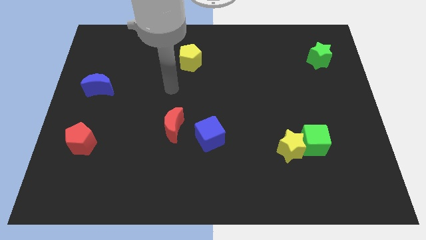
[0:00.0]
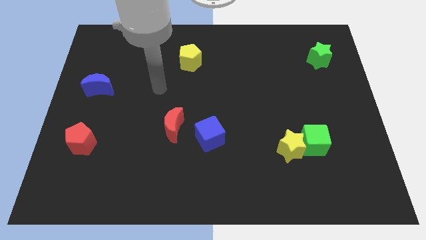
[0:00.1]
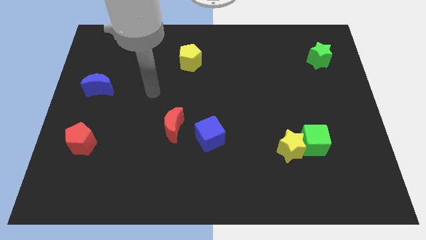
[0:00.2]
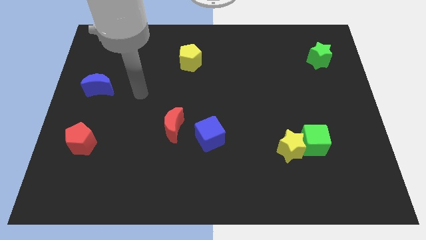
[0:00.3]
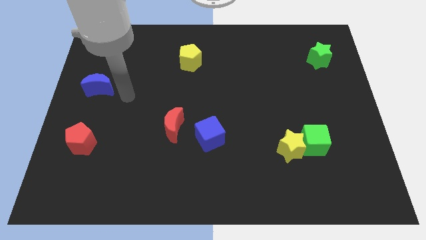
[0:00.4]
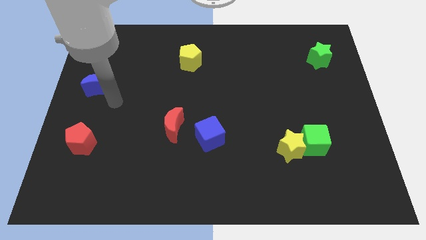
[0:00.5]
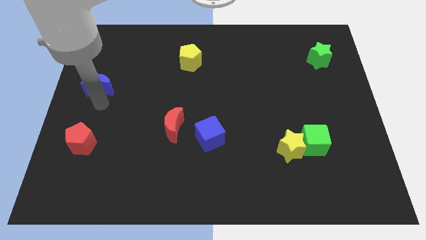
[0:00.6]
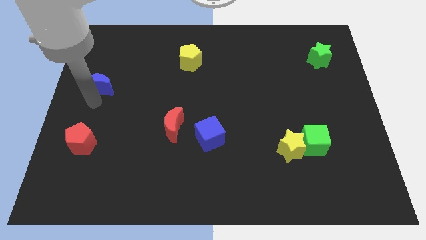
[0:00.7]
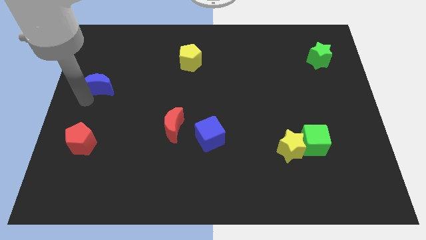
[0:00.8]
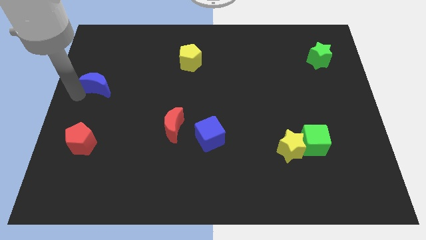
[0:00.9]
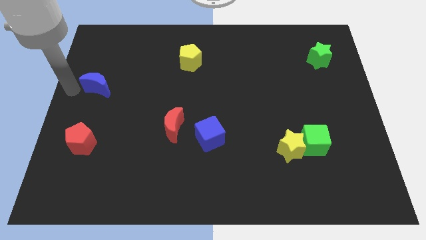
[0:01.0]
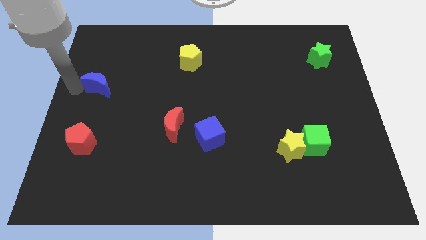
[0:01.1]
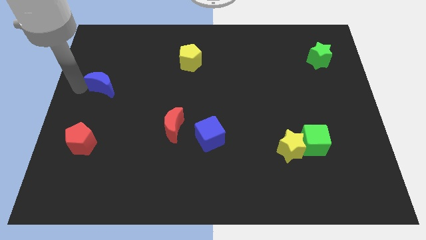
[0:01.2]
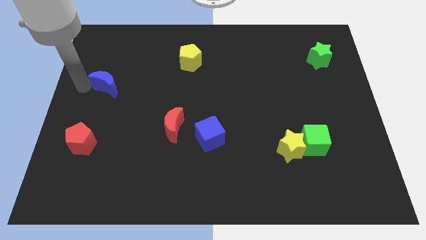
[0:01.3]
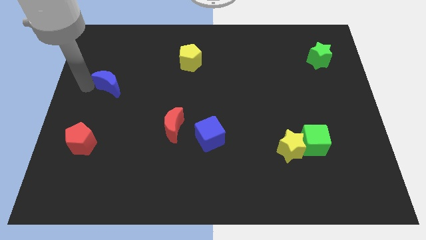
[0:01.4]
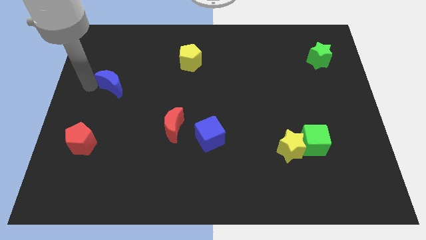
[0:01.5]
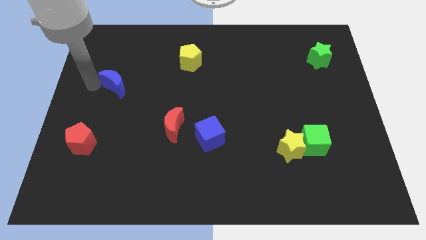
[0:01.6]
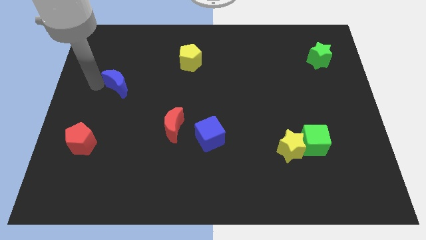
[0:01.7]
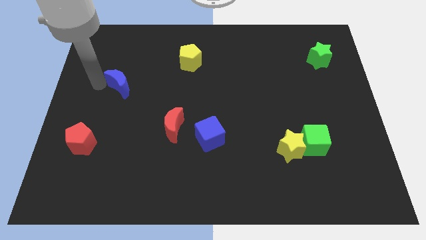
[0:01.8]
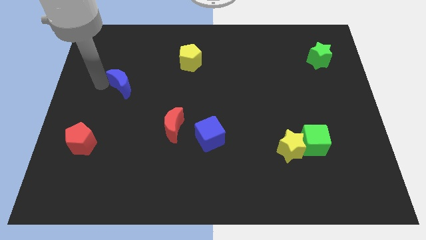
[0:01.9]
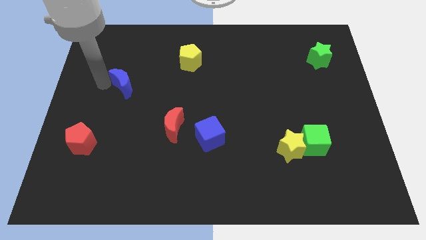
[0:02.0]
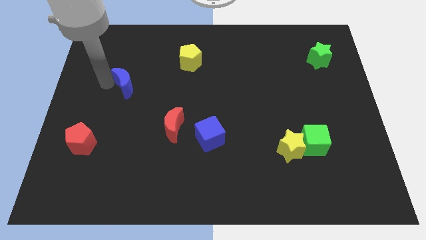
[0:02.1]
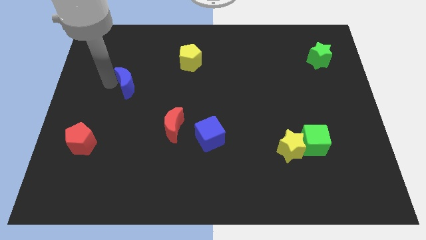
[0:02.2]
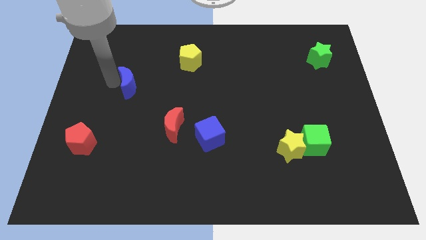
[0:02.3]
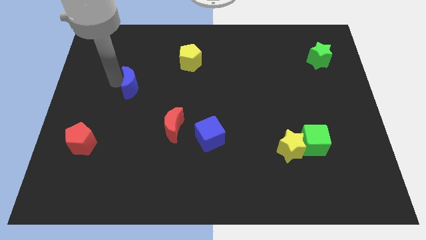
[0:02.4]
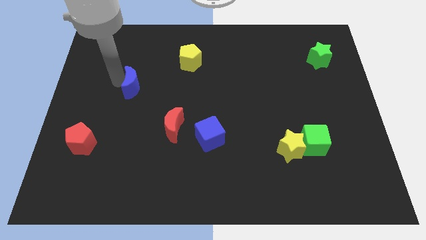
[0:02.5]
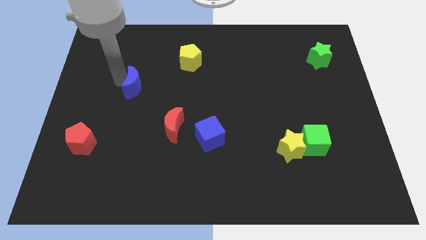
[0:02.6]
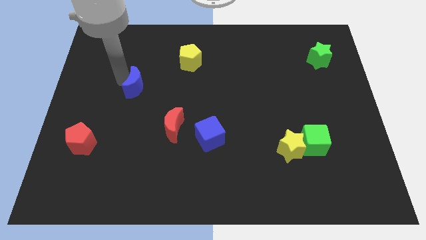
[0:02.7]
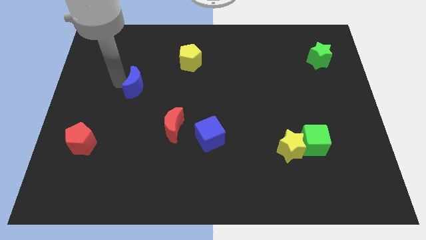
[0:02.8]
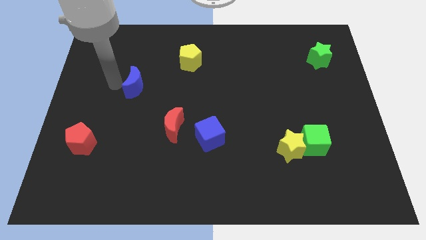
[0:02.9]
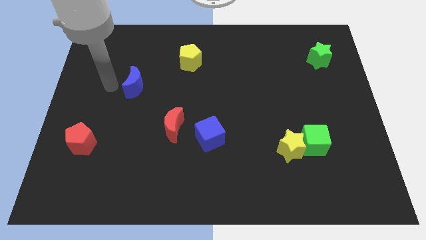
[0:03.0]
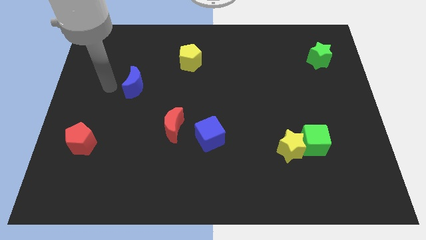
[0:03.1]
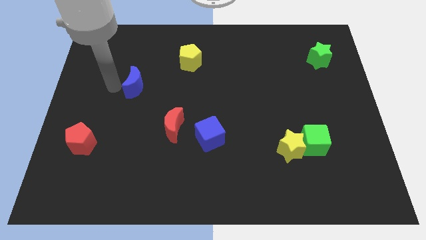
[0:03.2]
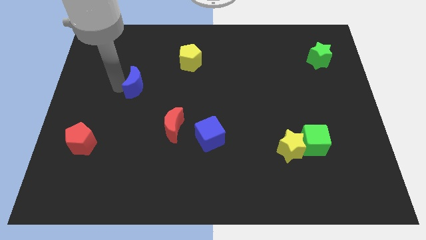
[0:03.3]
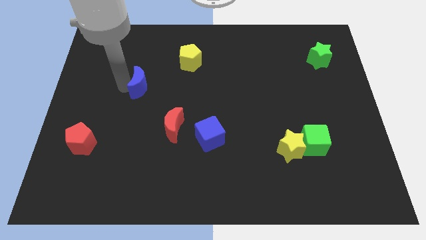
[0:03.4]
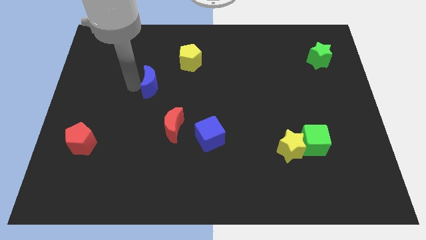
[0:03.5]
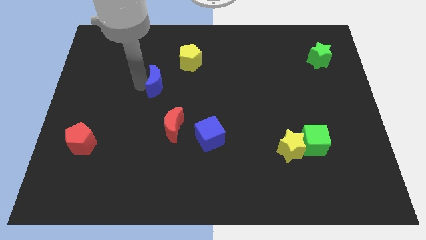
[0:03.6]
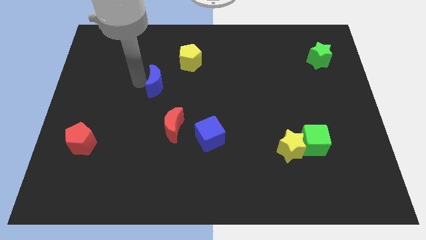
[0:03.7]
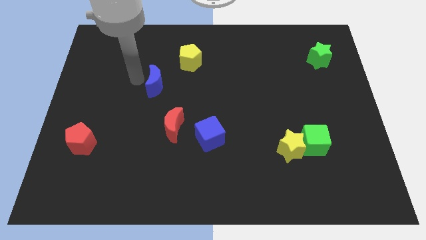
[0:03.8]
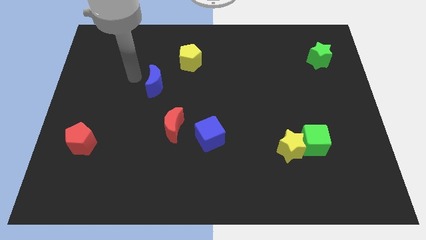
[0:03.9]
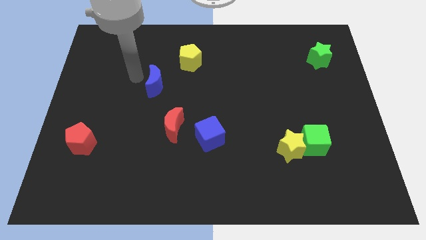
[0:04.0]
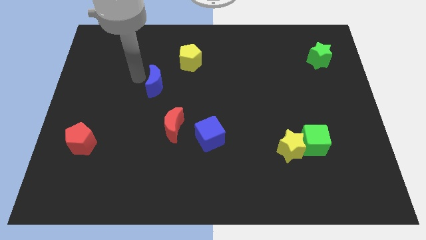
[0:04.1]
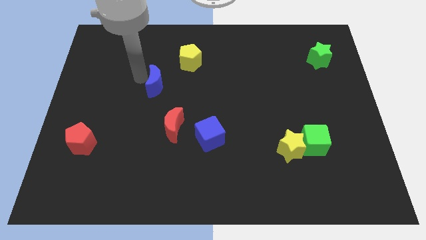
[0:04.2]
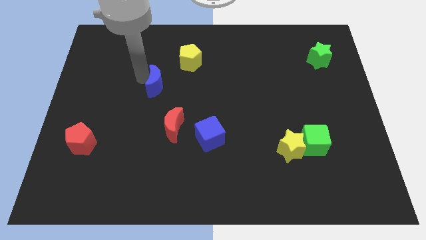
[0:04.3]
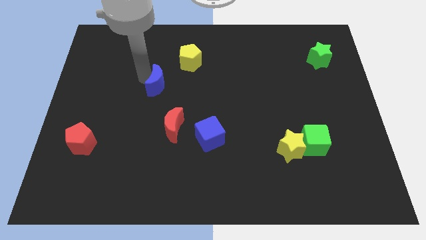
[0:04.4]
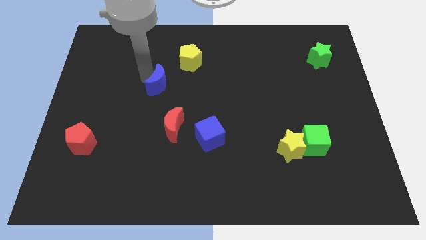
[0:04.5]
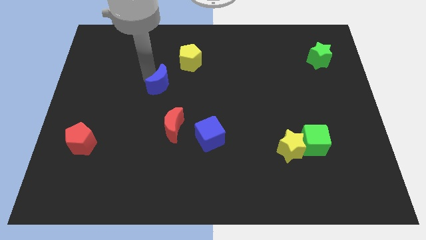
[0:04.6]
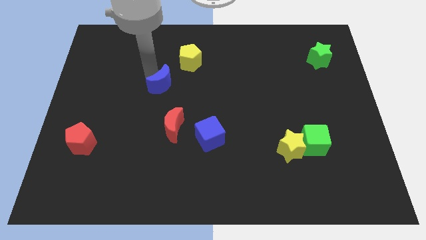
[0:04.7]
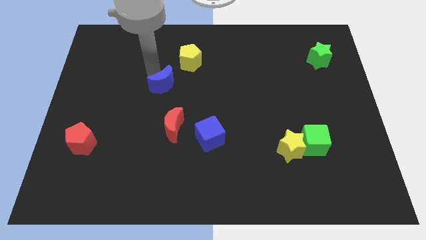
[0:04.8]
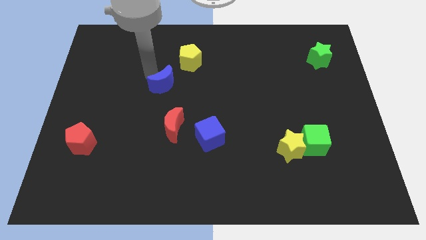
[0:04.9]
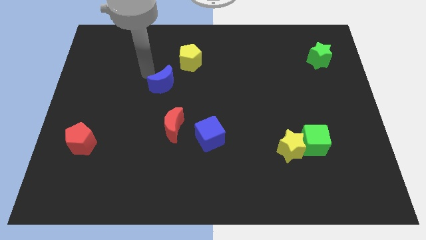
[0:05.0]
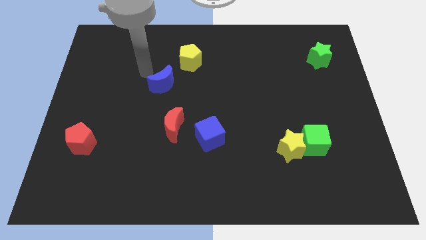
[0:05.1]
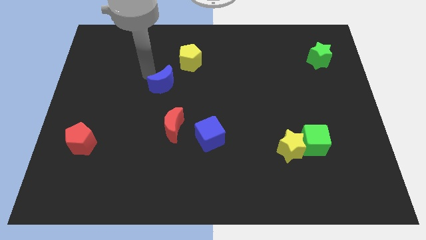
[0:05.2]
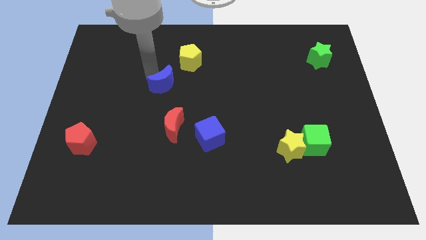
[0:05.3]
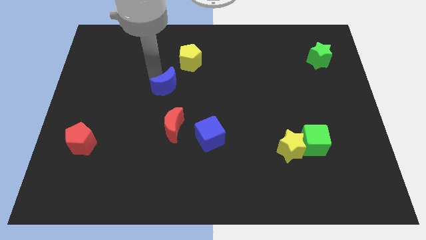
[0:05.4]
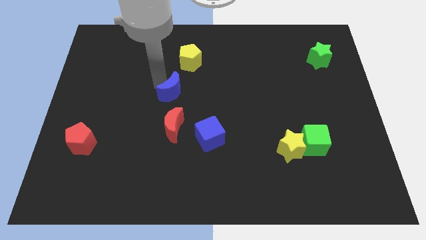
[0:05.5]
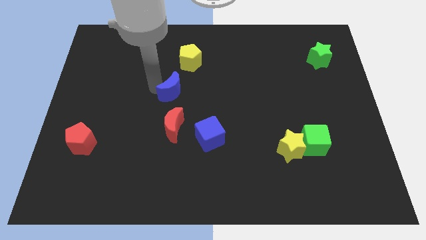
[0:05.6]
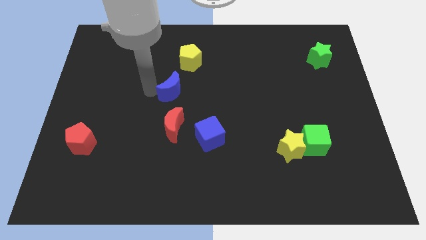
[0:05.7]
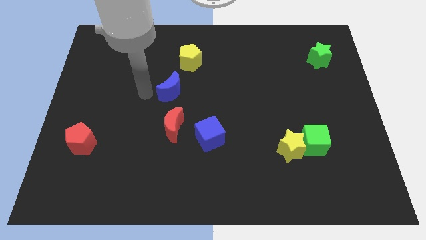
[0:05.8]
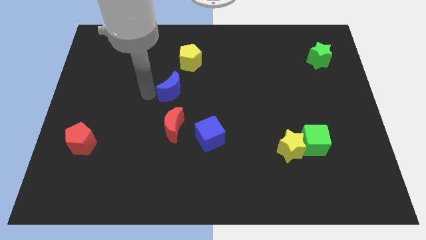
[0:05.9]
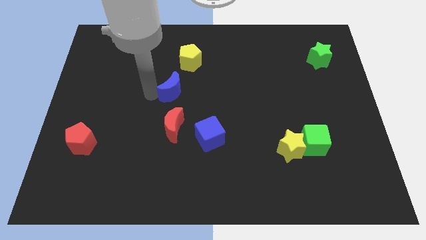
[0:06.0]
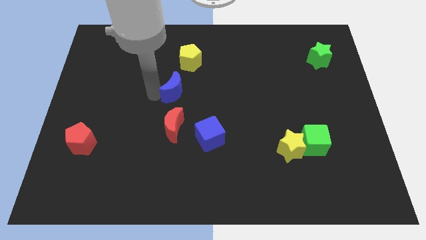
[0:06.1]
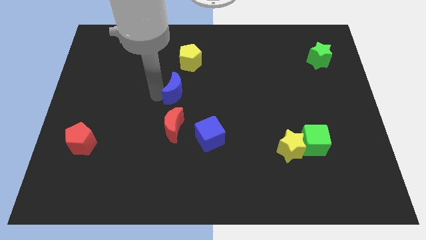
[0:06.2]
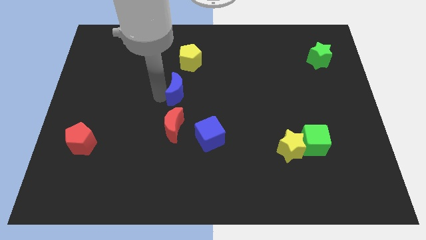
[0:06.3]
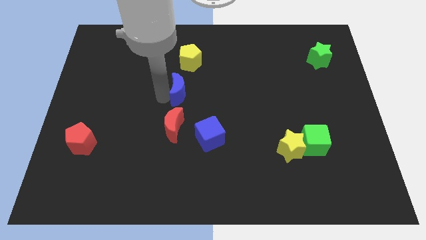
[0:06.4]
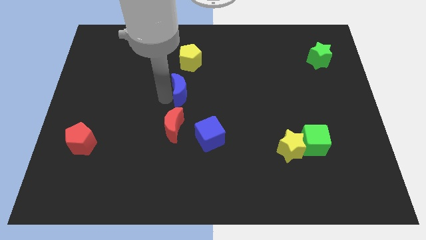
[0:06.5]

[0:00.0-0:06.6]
move the blue moon to the right

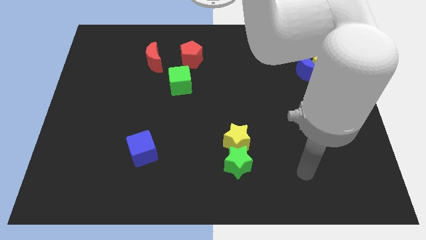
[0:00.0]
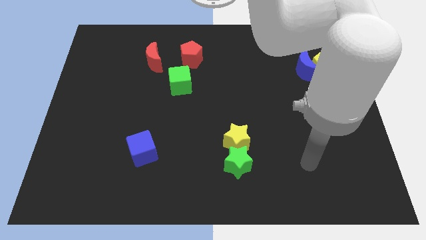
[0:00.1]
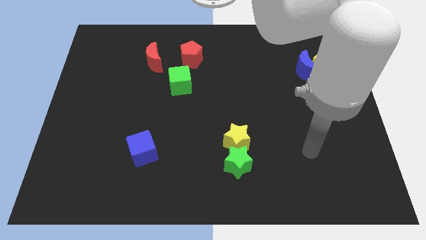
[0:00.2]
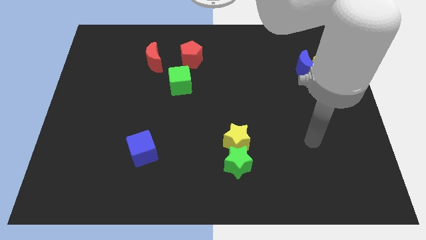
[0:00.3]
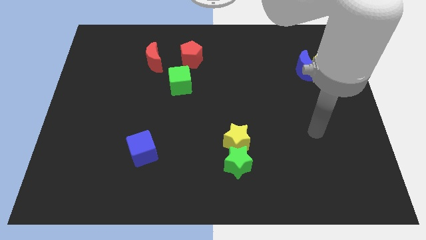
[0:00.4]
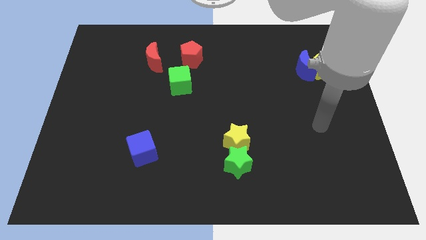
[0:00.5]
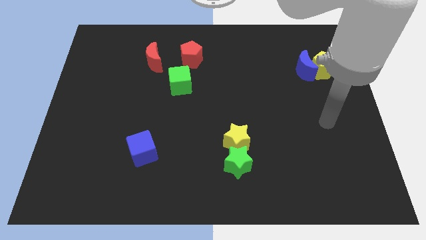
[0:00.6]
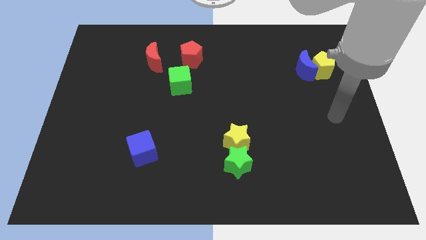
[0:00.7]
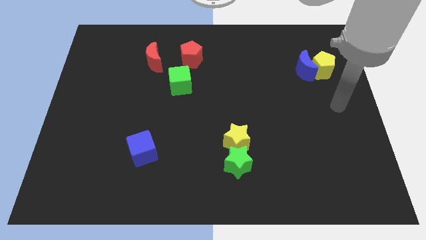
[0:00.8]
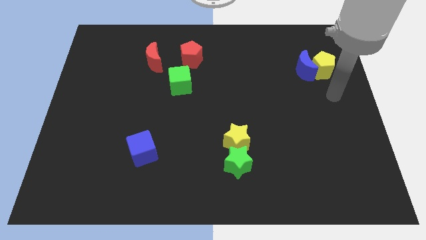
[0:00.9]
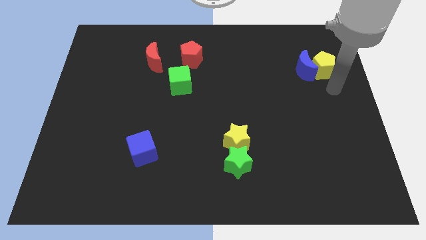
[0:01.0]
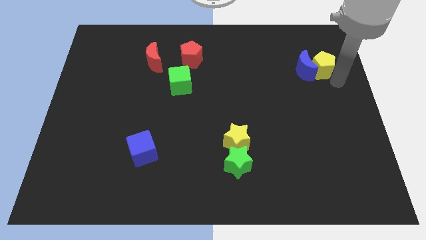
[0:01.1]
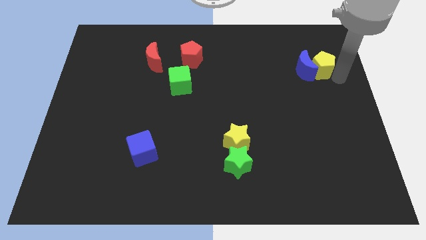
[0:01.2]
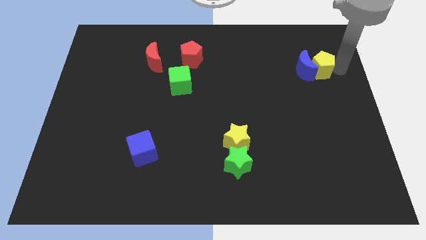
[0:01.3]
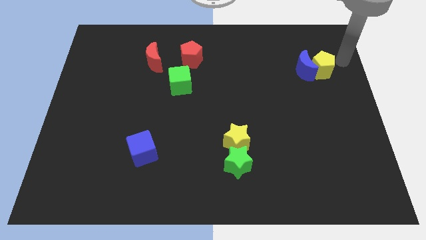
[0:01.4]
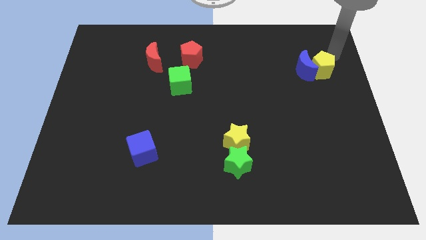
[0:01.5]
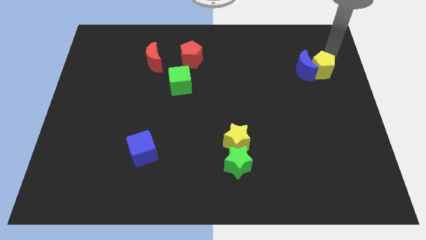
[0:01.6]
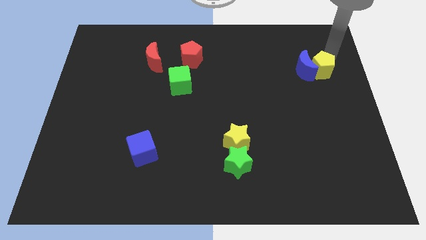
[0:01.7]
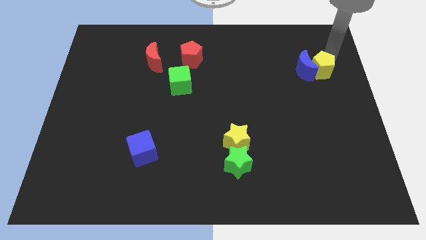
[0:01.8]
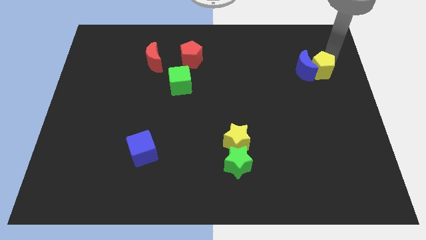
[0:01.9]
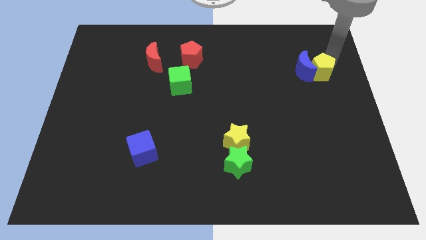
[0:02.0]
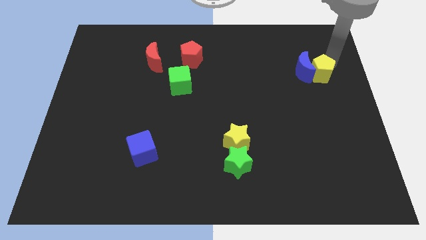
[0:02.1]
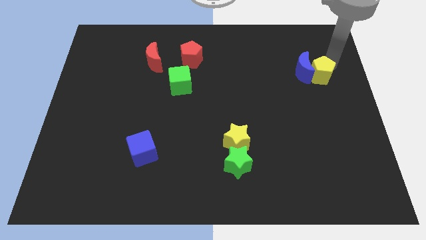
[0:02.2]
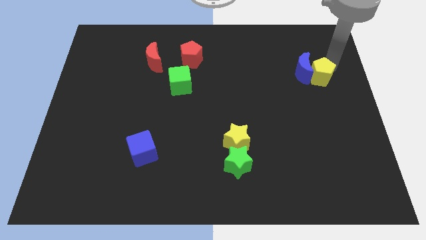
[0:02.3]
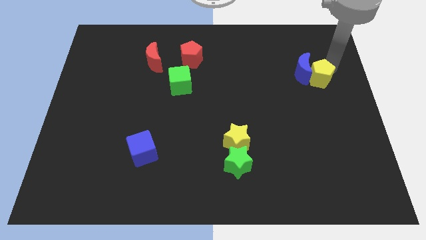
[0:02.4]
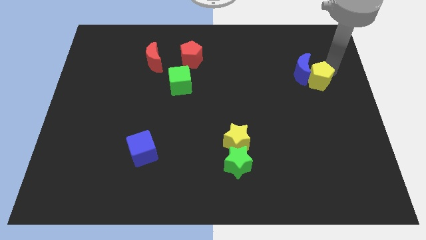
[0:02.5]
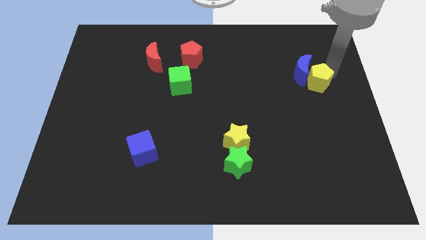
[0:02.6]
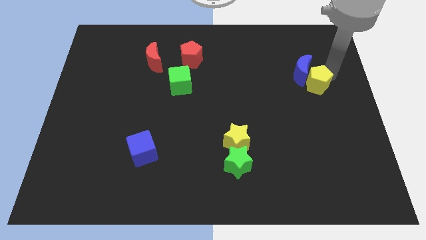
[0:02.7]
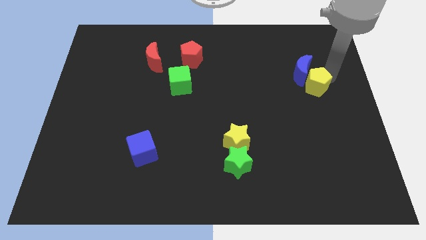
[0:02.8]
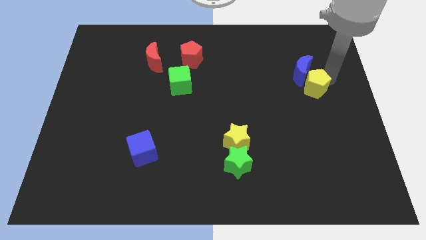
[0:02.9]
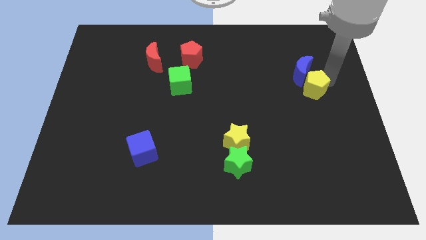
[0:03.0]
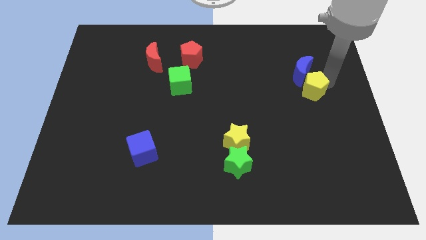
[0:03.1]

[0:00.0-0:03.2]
push the yellow pentagon a little bit down and then to the left
